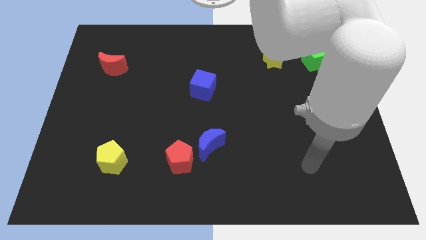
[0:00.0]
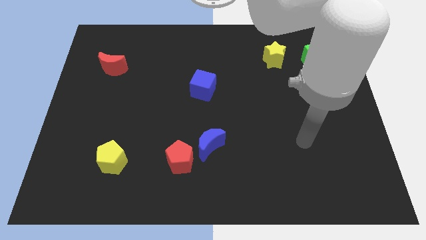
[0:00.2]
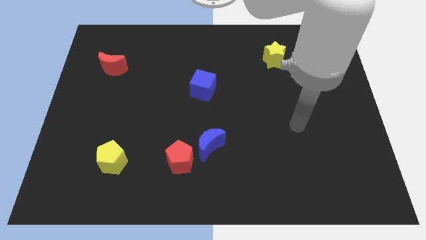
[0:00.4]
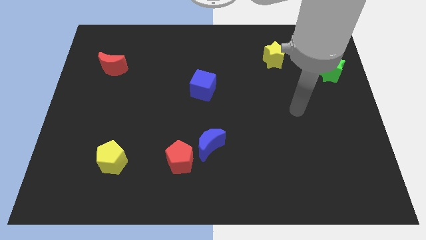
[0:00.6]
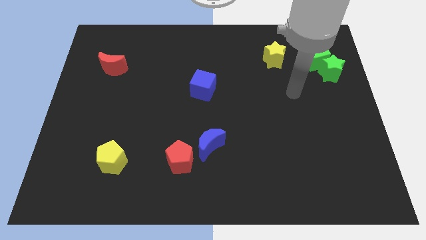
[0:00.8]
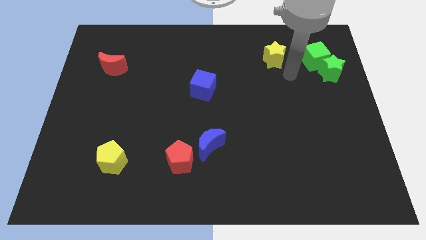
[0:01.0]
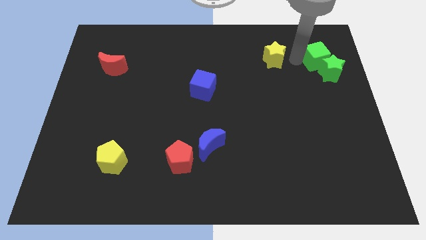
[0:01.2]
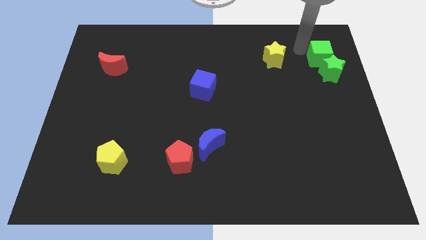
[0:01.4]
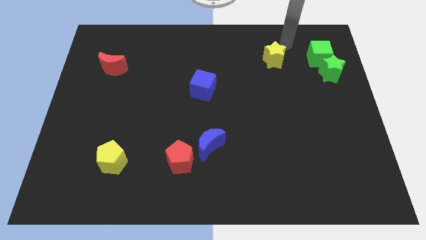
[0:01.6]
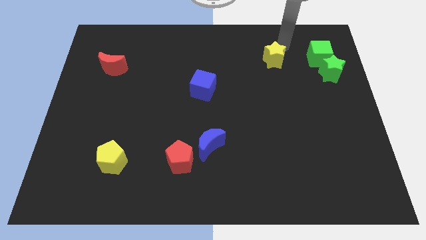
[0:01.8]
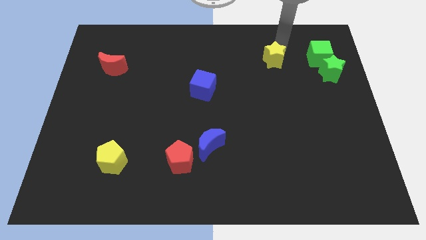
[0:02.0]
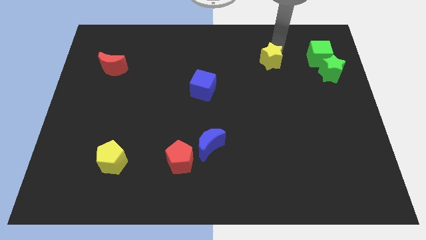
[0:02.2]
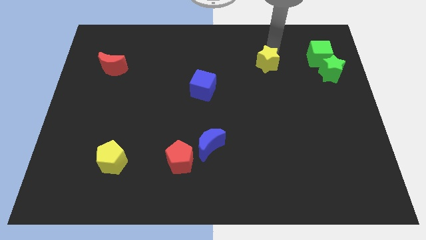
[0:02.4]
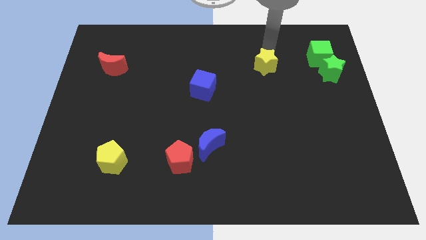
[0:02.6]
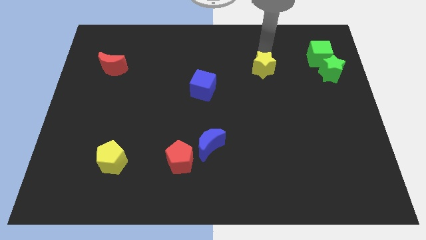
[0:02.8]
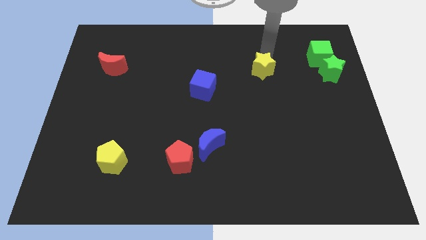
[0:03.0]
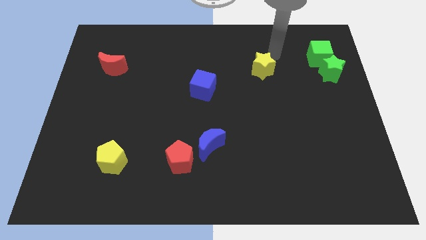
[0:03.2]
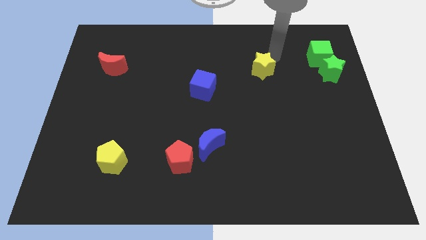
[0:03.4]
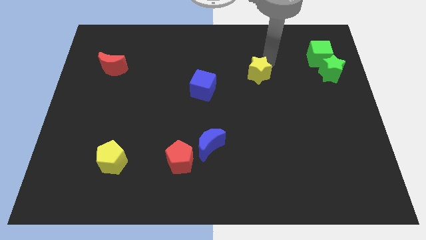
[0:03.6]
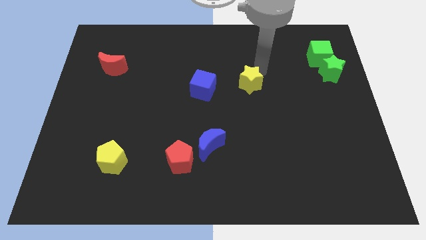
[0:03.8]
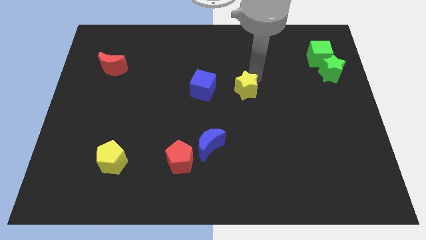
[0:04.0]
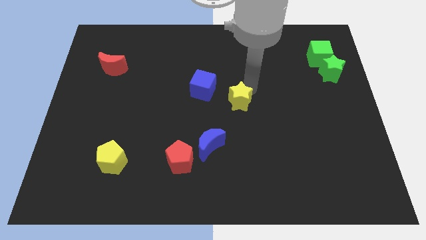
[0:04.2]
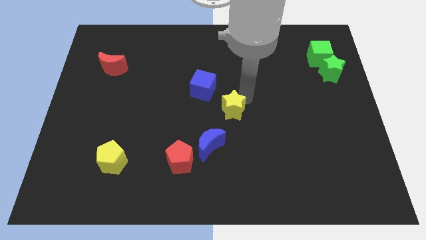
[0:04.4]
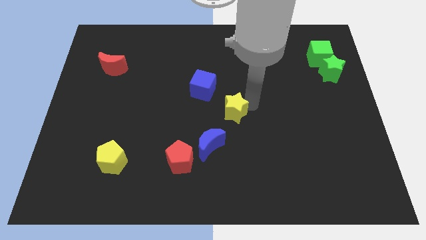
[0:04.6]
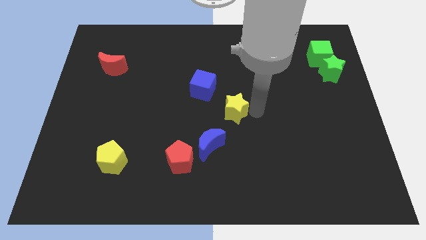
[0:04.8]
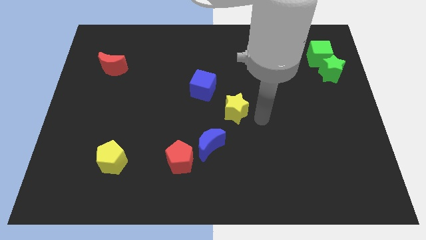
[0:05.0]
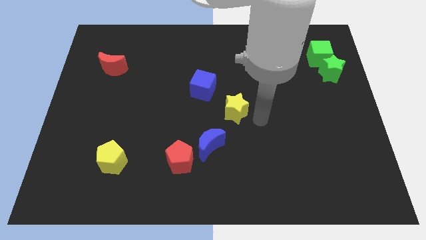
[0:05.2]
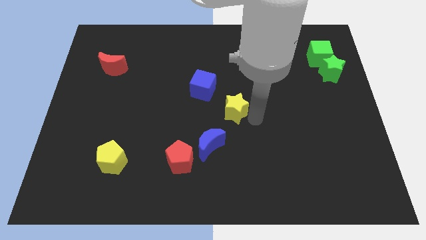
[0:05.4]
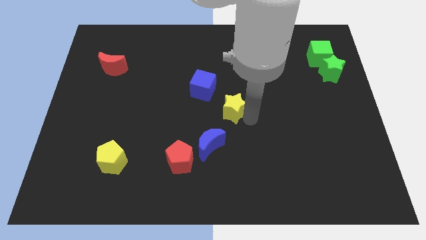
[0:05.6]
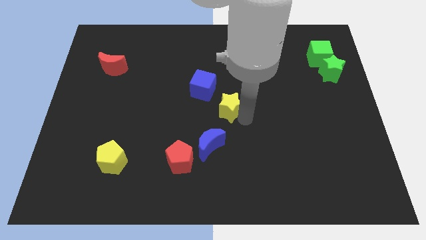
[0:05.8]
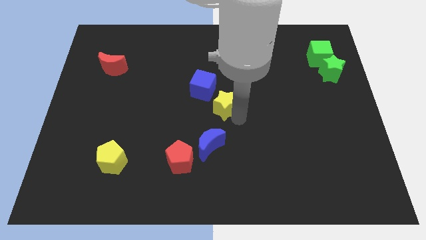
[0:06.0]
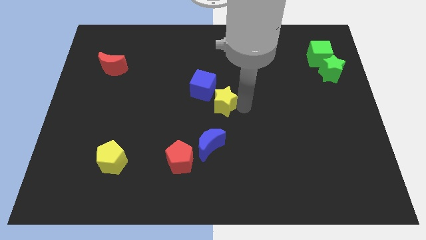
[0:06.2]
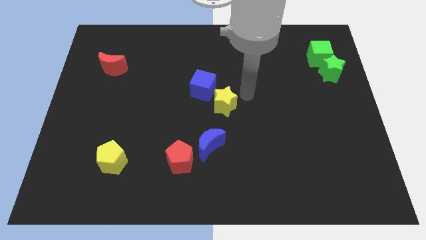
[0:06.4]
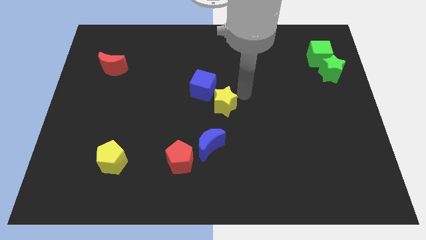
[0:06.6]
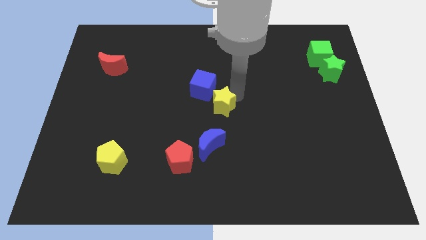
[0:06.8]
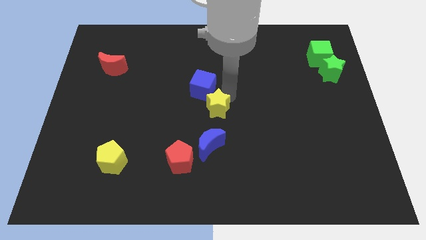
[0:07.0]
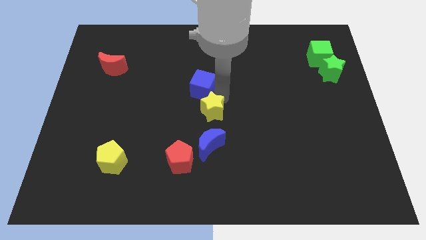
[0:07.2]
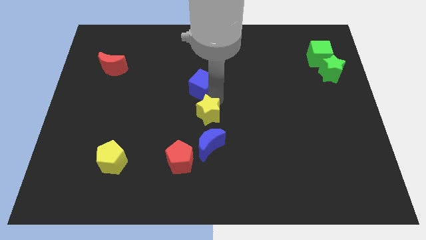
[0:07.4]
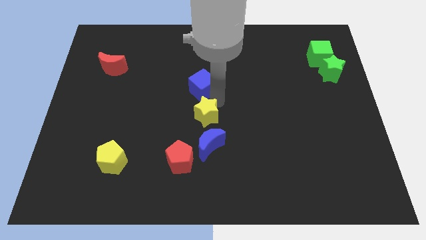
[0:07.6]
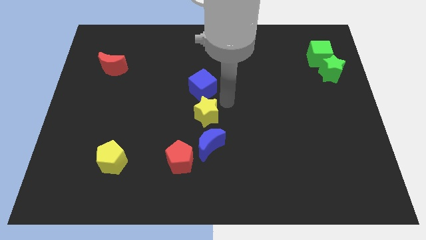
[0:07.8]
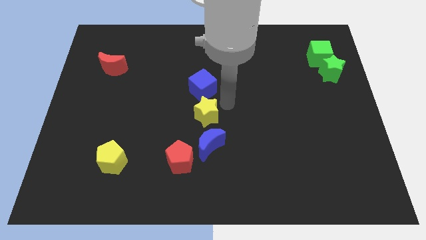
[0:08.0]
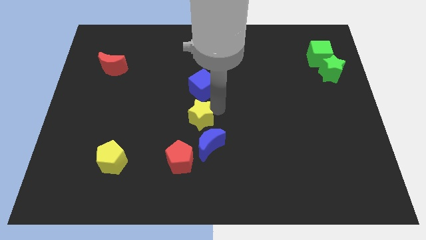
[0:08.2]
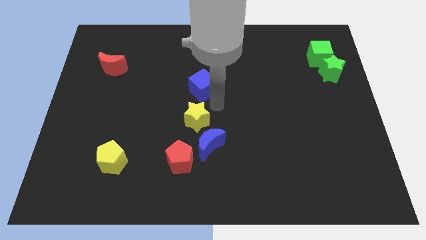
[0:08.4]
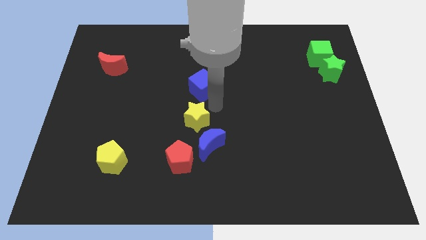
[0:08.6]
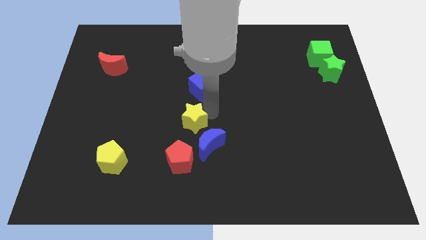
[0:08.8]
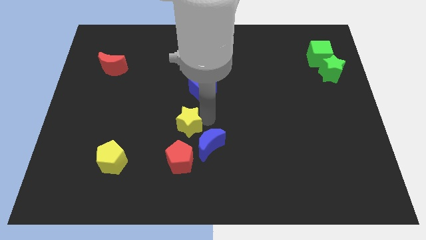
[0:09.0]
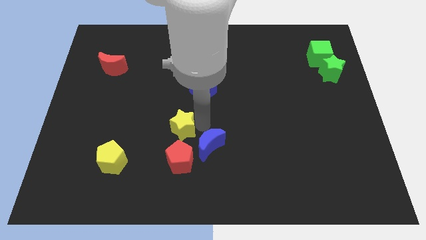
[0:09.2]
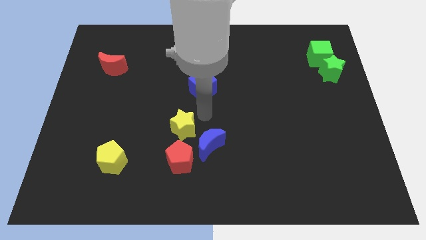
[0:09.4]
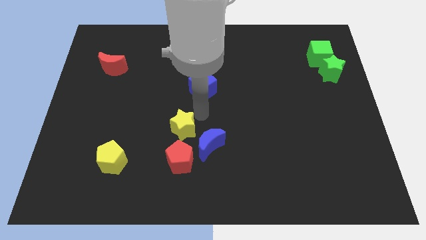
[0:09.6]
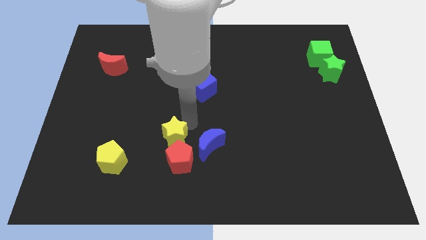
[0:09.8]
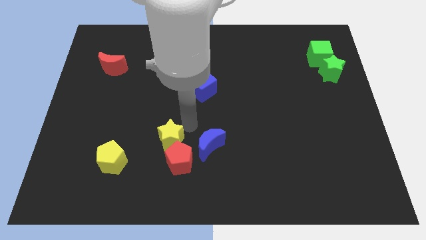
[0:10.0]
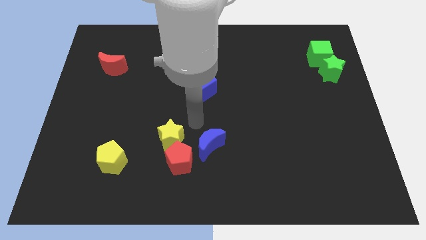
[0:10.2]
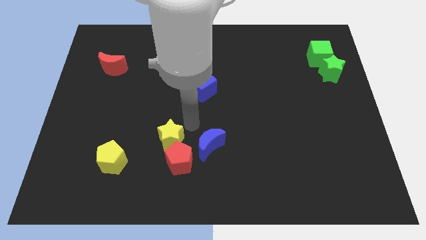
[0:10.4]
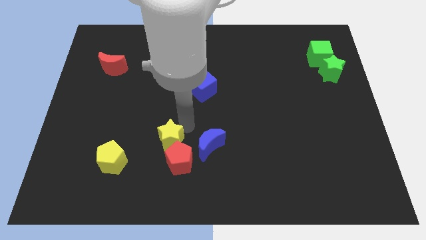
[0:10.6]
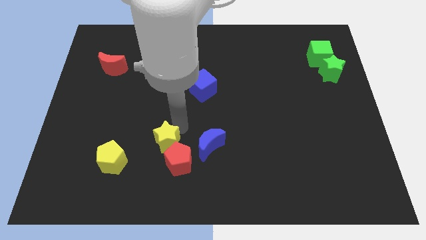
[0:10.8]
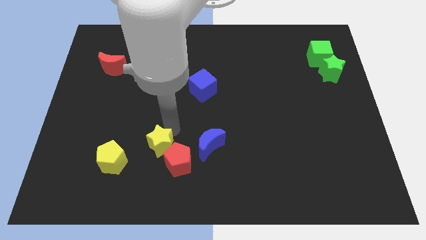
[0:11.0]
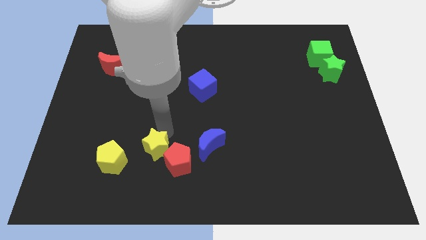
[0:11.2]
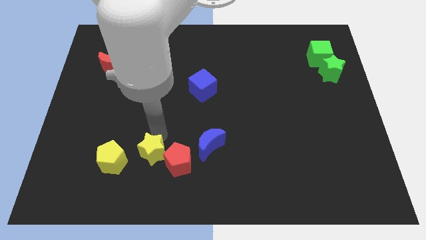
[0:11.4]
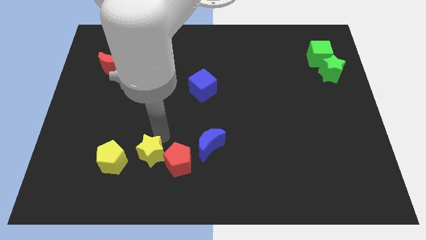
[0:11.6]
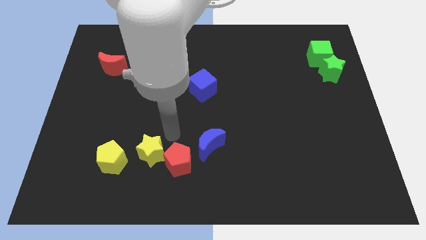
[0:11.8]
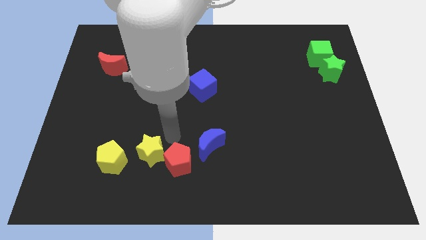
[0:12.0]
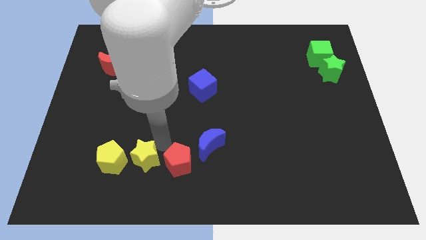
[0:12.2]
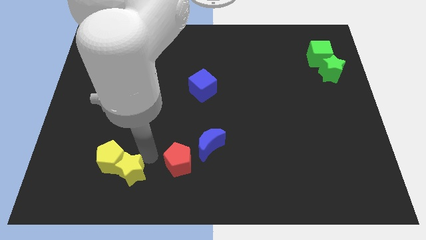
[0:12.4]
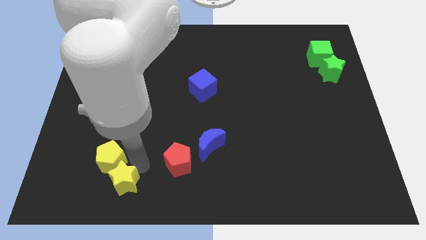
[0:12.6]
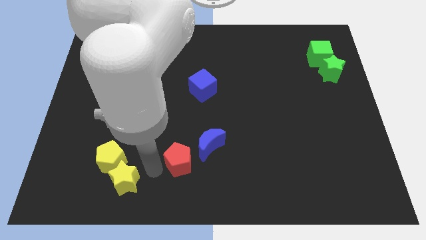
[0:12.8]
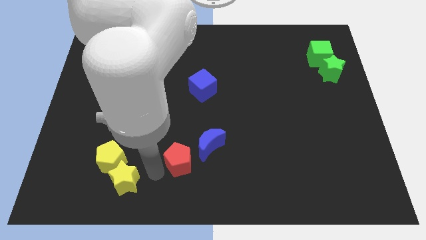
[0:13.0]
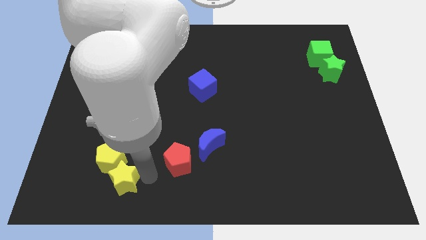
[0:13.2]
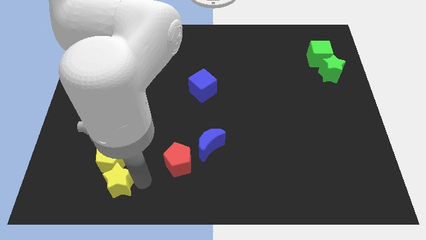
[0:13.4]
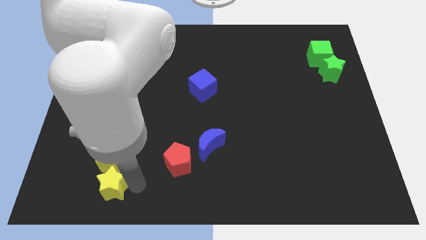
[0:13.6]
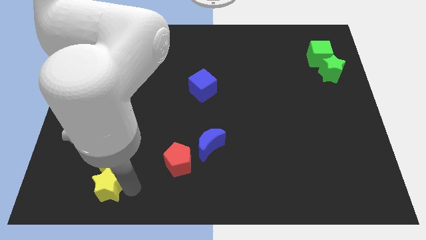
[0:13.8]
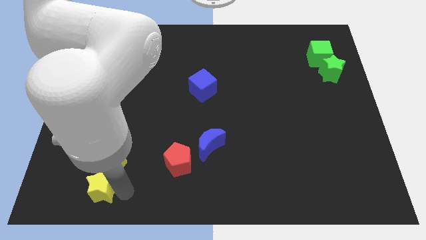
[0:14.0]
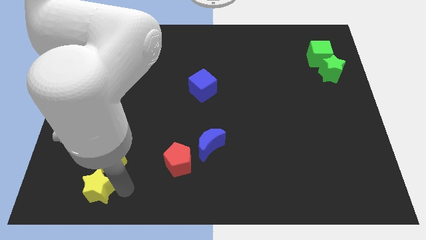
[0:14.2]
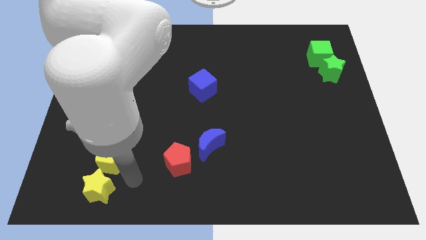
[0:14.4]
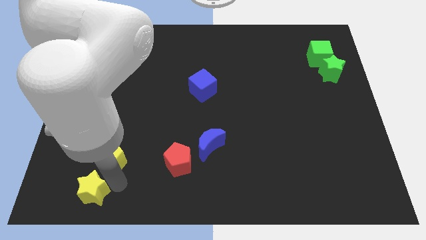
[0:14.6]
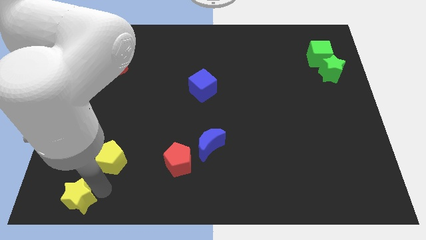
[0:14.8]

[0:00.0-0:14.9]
move the yellow star to the lower left corner
